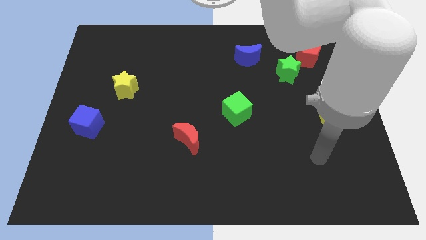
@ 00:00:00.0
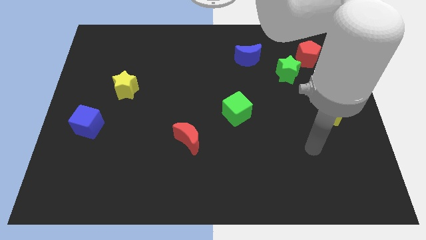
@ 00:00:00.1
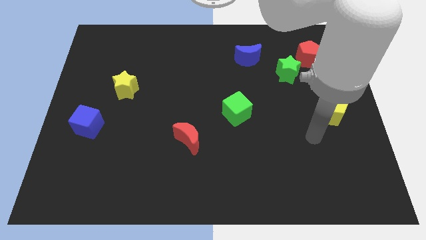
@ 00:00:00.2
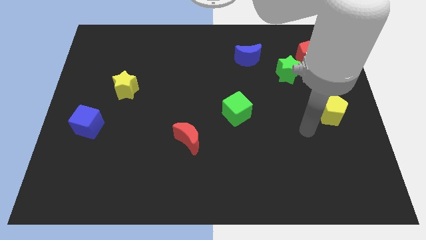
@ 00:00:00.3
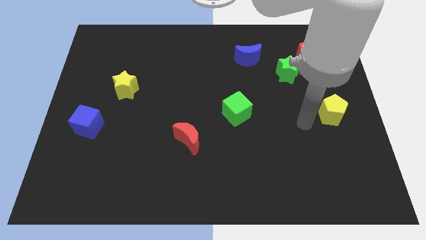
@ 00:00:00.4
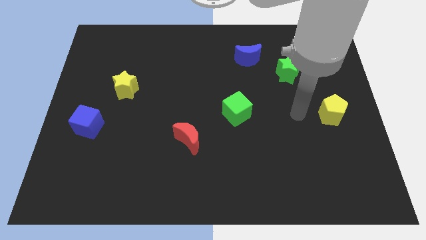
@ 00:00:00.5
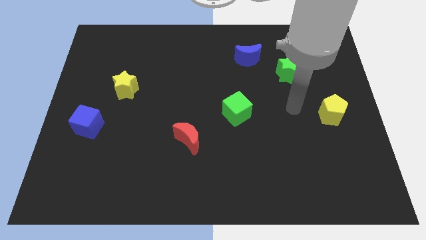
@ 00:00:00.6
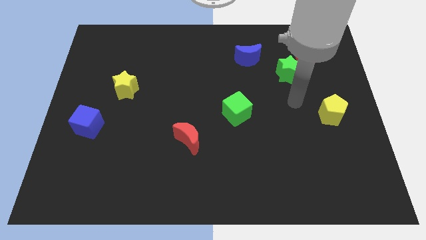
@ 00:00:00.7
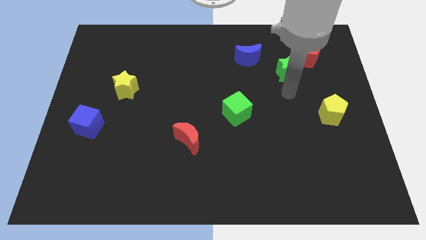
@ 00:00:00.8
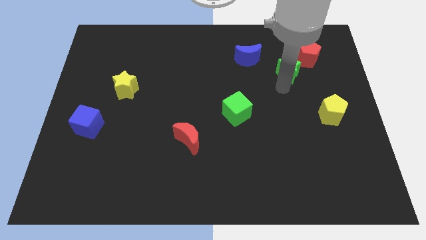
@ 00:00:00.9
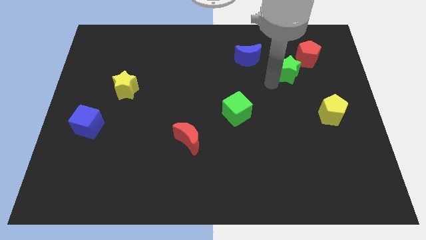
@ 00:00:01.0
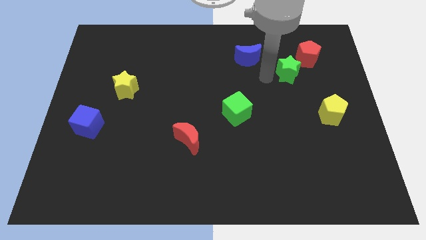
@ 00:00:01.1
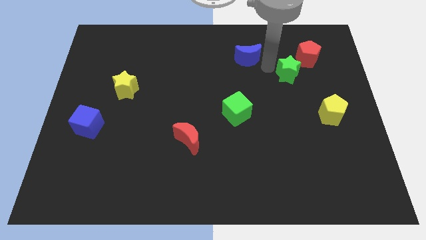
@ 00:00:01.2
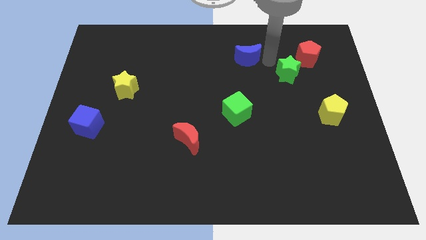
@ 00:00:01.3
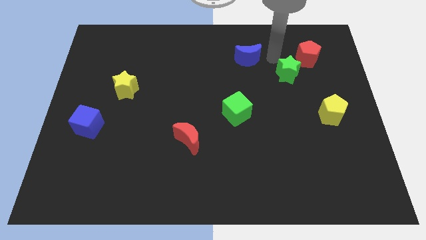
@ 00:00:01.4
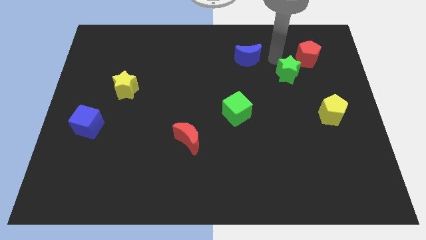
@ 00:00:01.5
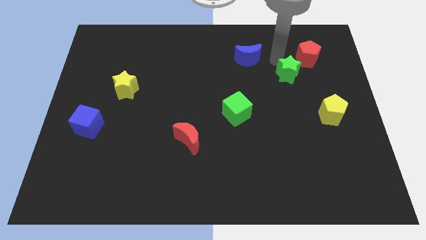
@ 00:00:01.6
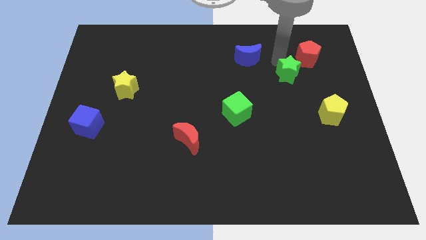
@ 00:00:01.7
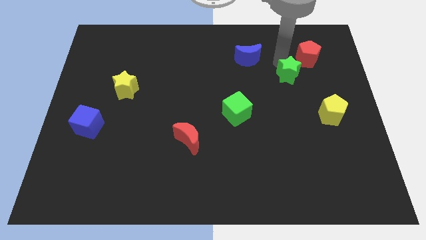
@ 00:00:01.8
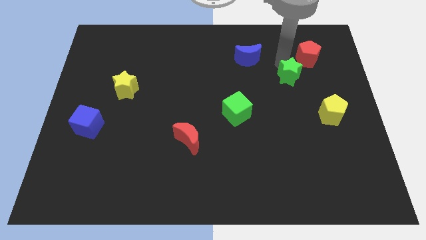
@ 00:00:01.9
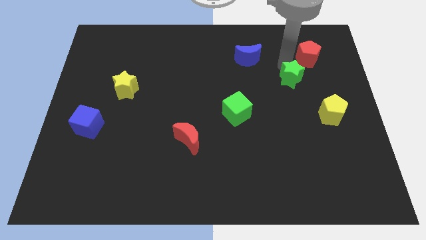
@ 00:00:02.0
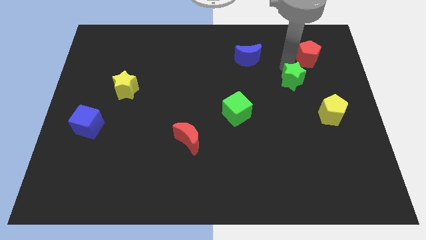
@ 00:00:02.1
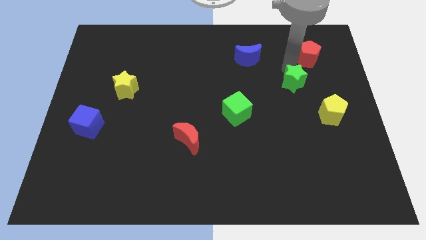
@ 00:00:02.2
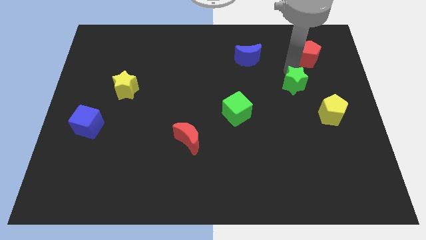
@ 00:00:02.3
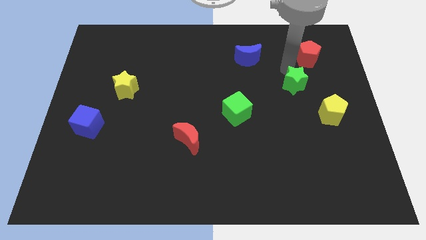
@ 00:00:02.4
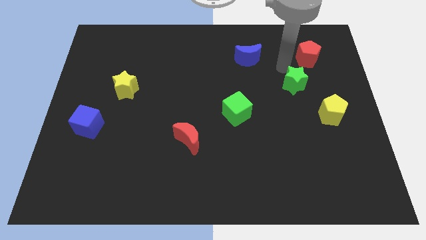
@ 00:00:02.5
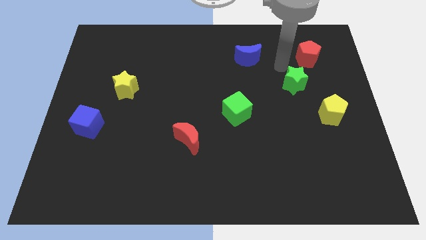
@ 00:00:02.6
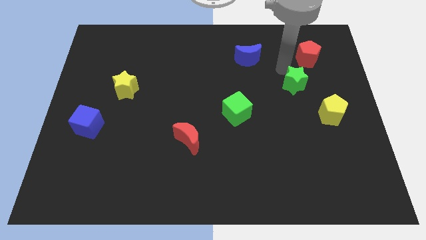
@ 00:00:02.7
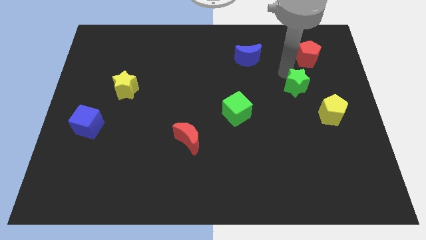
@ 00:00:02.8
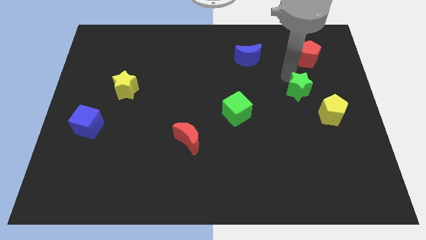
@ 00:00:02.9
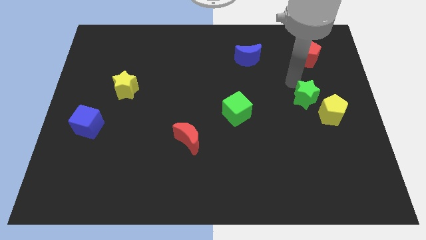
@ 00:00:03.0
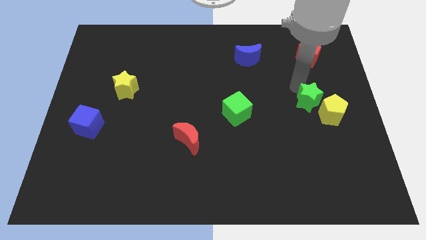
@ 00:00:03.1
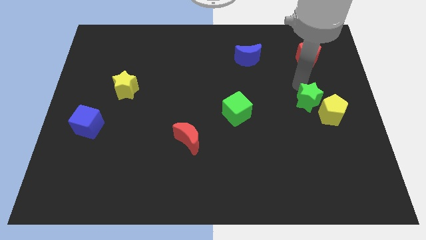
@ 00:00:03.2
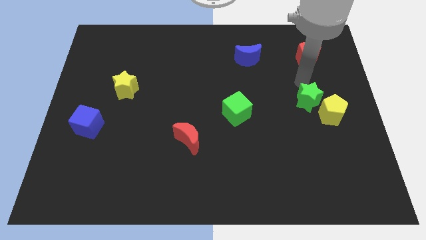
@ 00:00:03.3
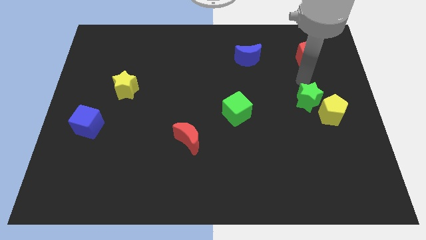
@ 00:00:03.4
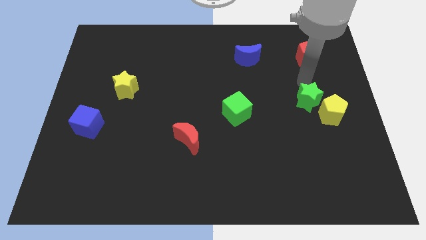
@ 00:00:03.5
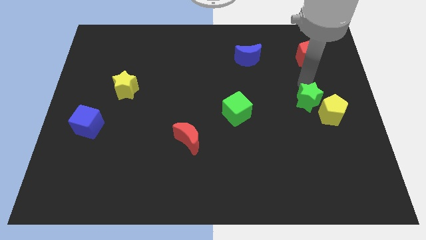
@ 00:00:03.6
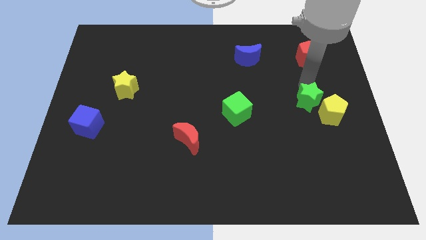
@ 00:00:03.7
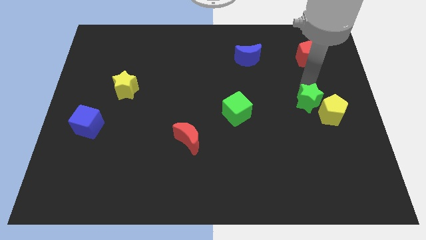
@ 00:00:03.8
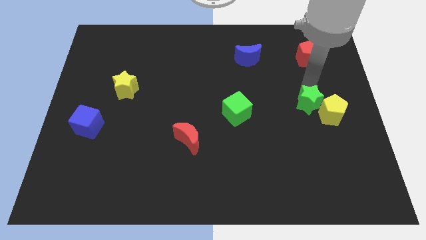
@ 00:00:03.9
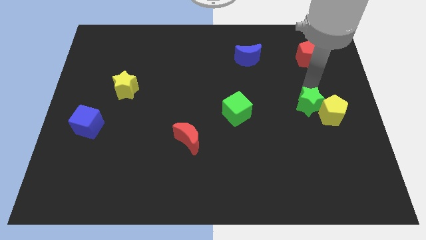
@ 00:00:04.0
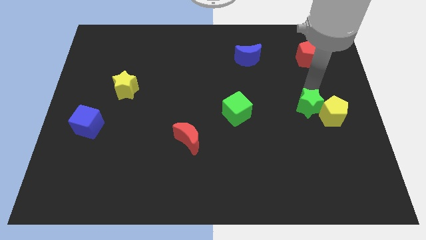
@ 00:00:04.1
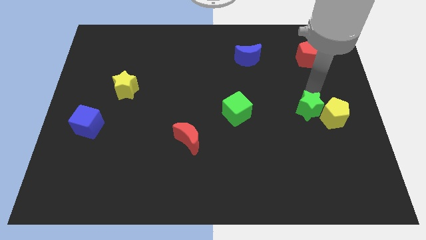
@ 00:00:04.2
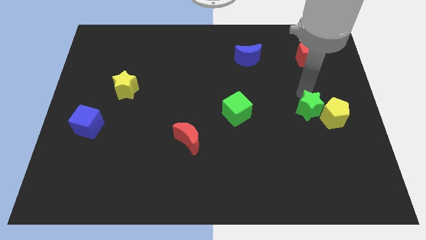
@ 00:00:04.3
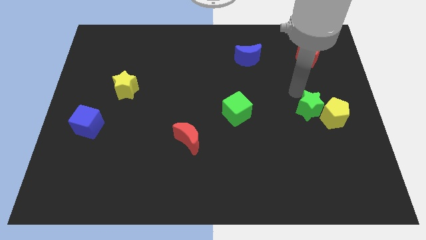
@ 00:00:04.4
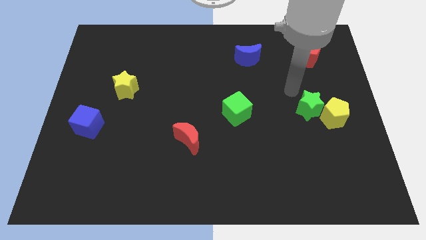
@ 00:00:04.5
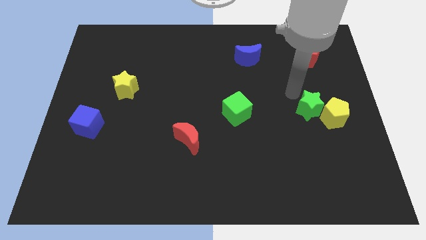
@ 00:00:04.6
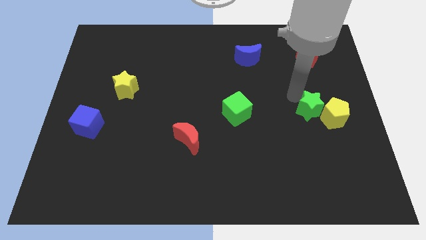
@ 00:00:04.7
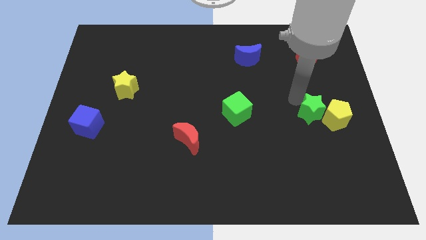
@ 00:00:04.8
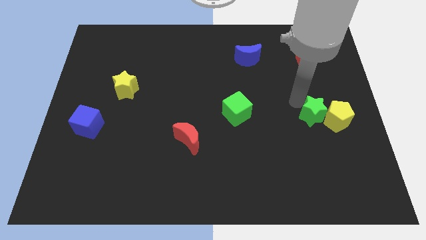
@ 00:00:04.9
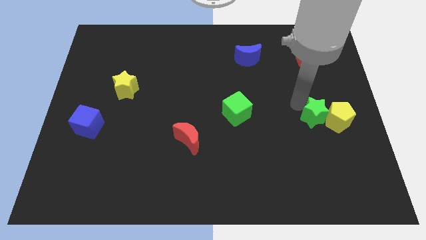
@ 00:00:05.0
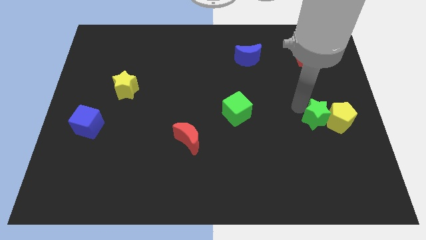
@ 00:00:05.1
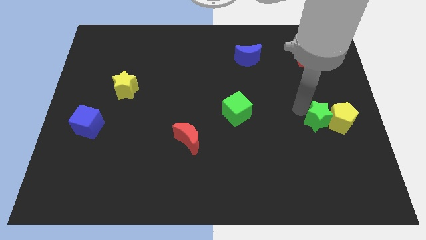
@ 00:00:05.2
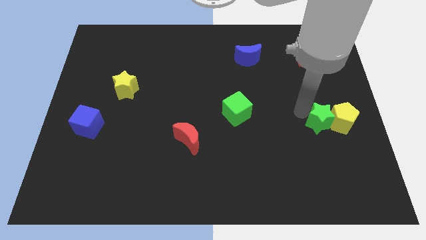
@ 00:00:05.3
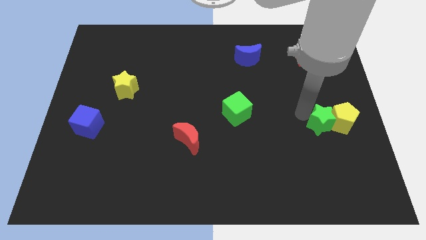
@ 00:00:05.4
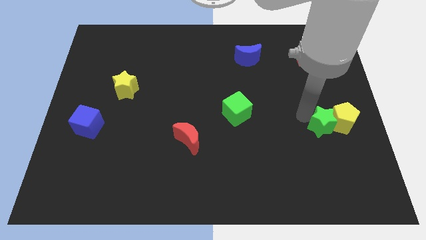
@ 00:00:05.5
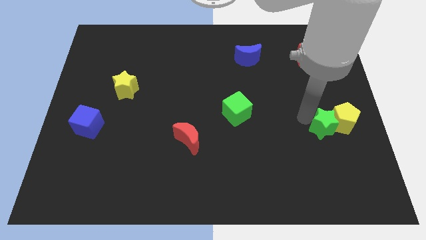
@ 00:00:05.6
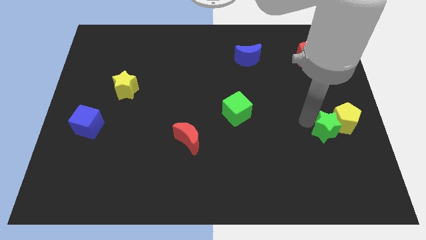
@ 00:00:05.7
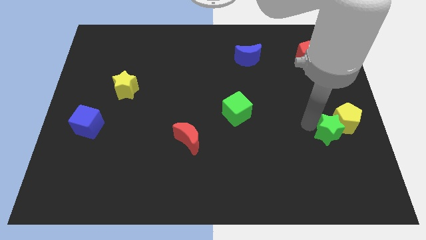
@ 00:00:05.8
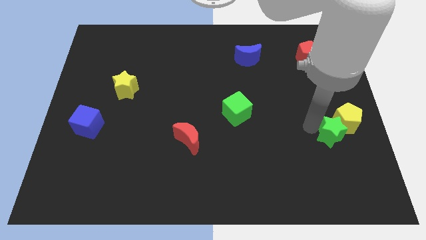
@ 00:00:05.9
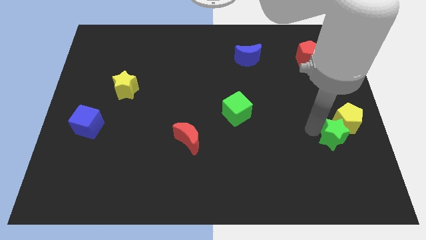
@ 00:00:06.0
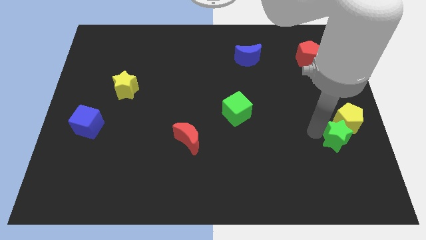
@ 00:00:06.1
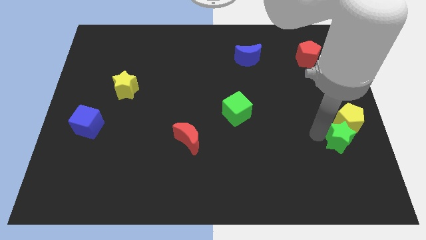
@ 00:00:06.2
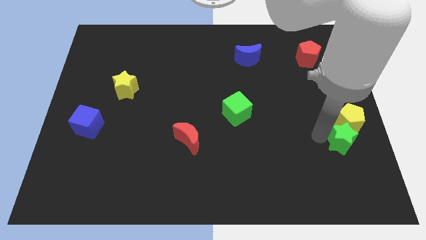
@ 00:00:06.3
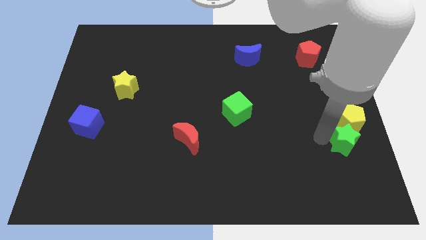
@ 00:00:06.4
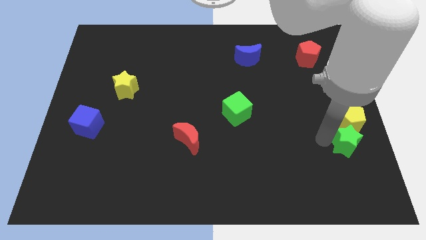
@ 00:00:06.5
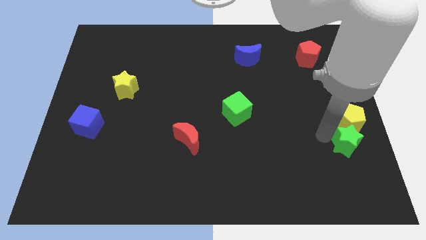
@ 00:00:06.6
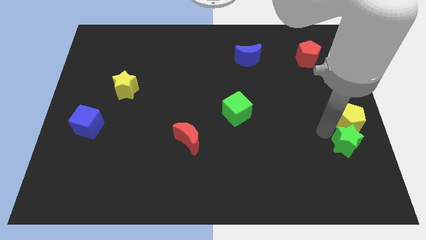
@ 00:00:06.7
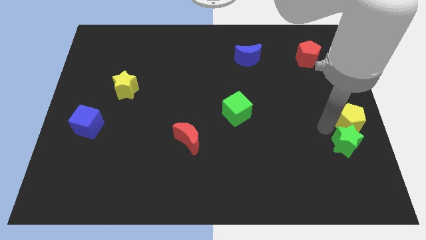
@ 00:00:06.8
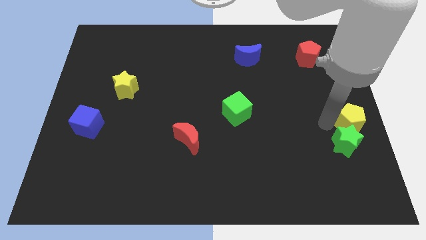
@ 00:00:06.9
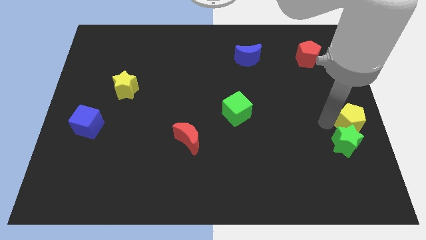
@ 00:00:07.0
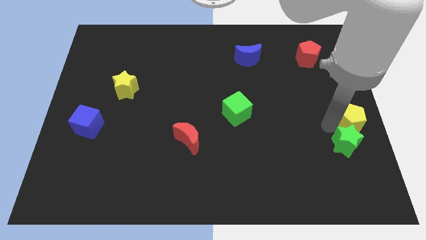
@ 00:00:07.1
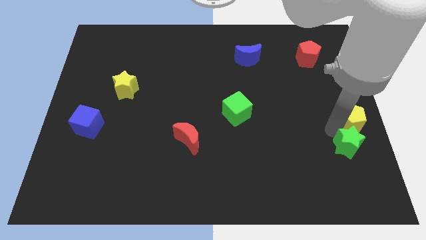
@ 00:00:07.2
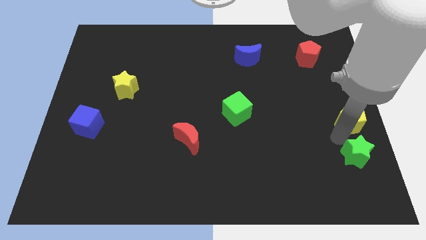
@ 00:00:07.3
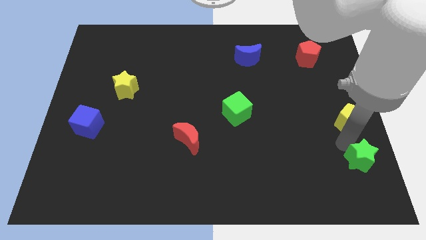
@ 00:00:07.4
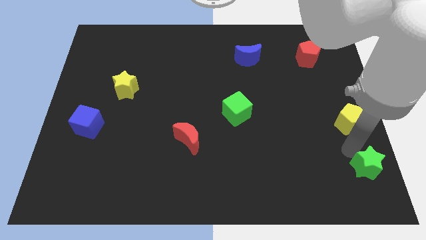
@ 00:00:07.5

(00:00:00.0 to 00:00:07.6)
slide the green star to the bottom right
